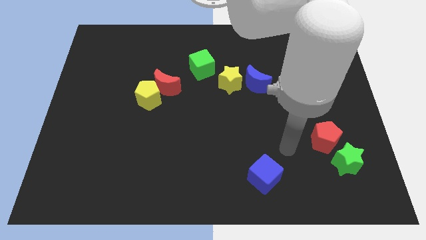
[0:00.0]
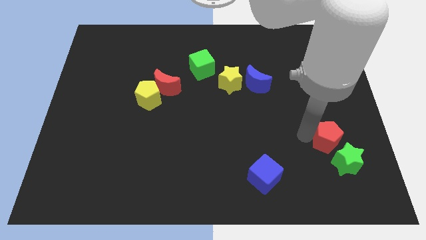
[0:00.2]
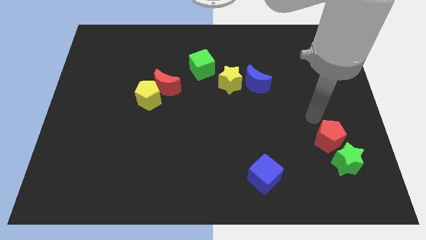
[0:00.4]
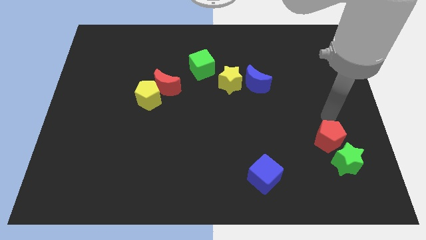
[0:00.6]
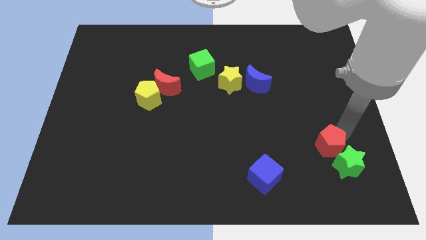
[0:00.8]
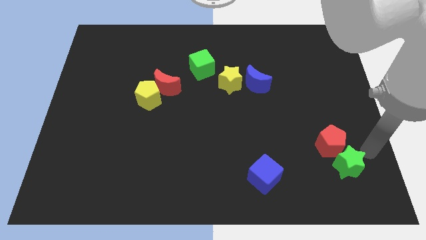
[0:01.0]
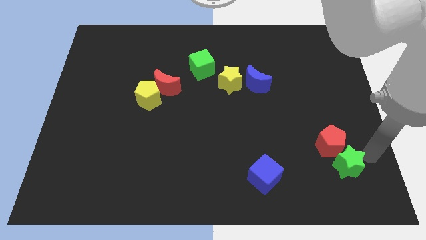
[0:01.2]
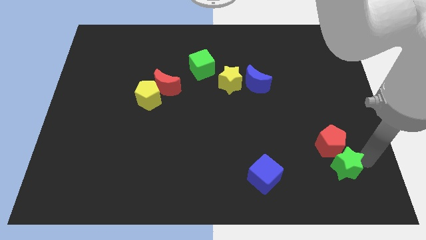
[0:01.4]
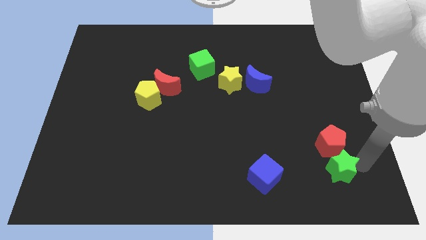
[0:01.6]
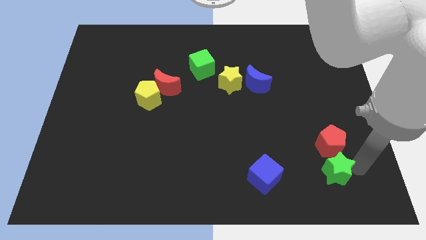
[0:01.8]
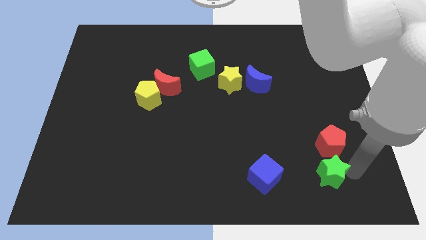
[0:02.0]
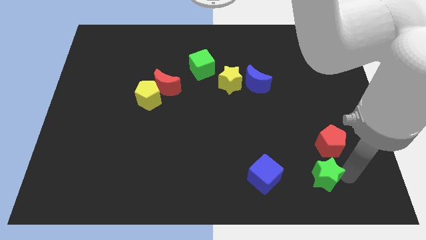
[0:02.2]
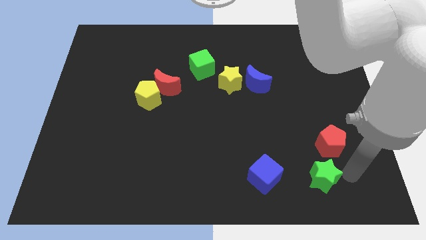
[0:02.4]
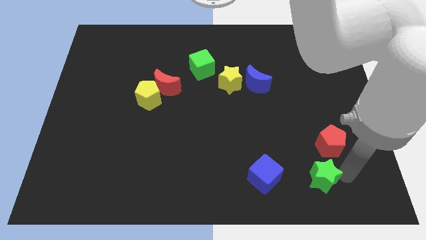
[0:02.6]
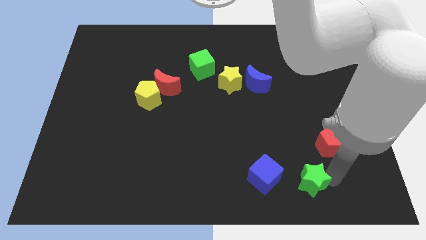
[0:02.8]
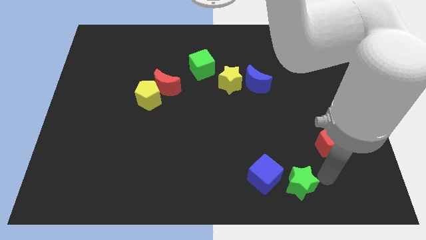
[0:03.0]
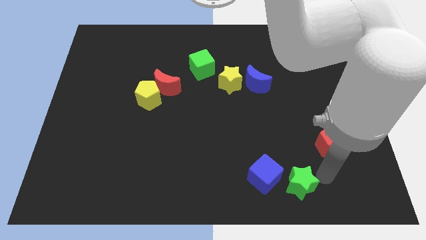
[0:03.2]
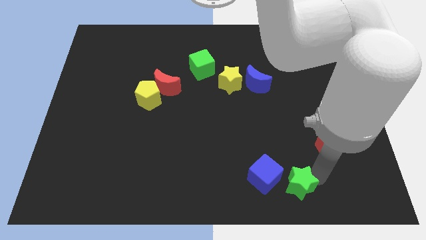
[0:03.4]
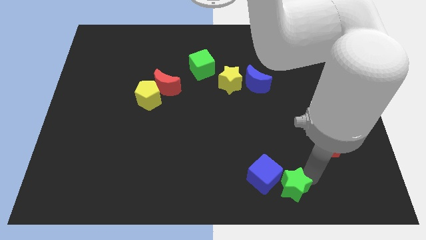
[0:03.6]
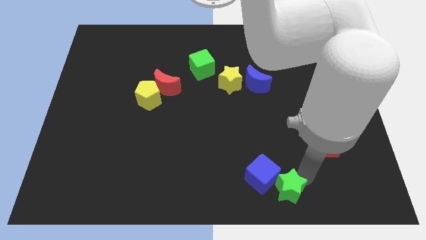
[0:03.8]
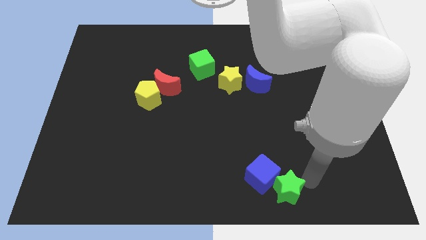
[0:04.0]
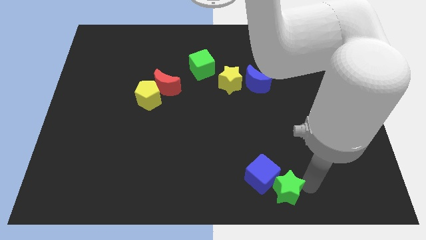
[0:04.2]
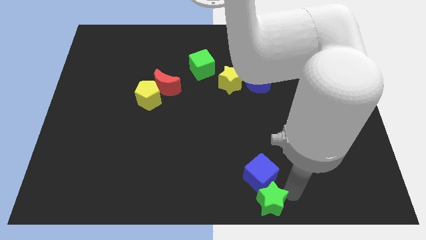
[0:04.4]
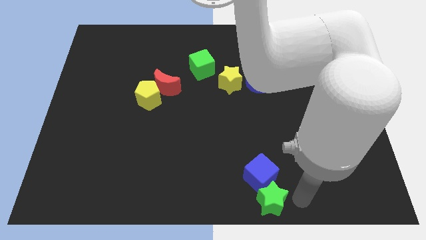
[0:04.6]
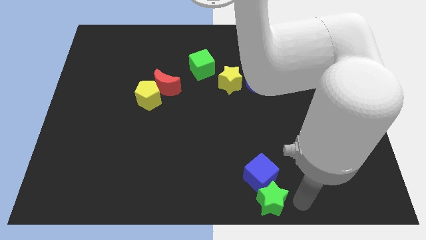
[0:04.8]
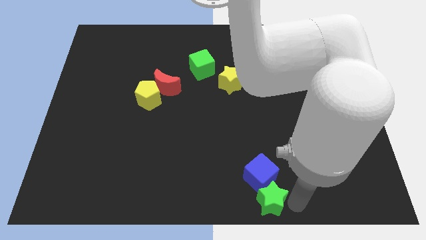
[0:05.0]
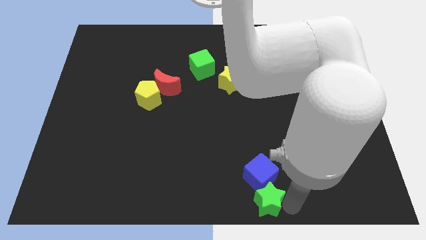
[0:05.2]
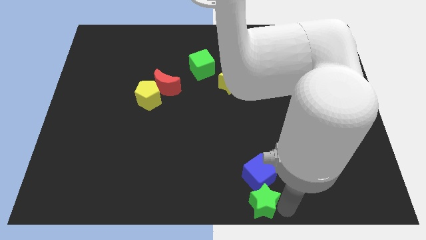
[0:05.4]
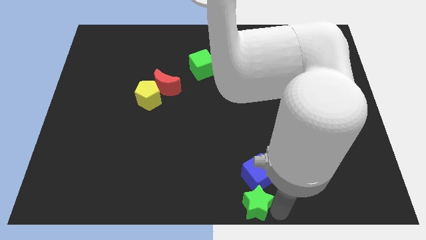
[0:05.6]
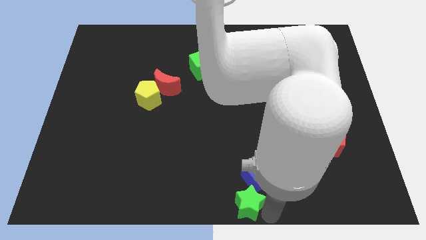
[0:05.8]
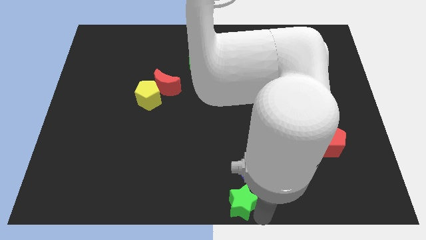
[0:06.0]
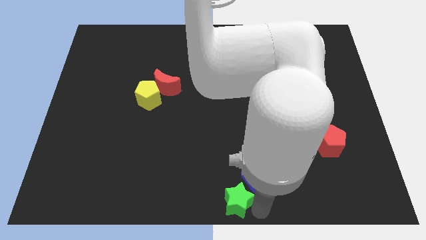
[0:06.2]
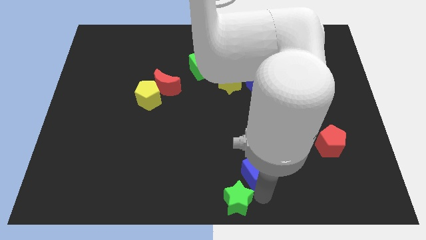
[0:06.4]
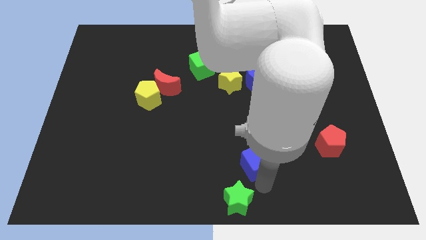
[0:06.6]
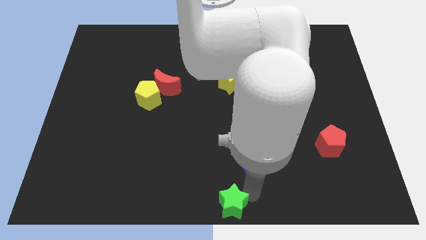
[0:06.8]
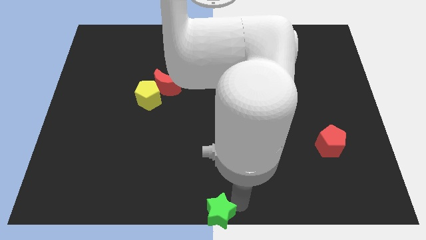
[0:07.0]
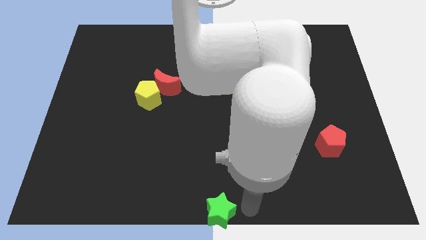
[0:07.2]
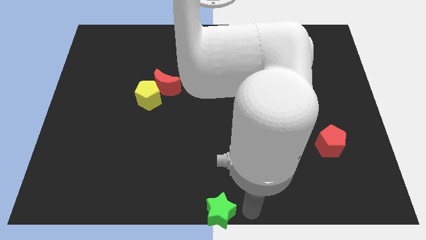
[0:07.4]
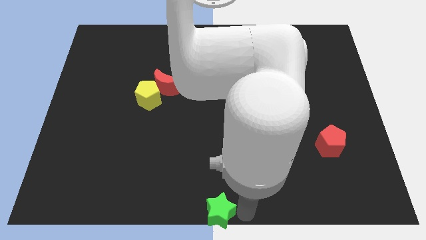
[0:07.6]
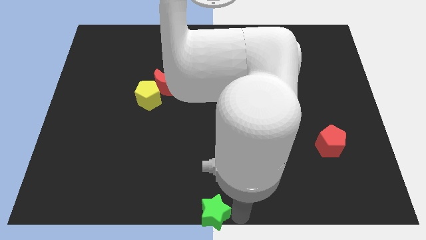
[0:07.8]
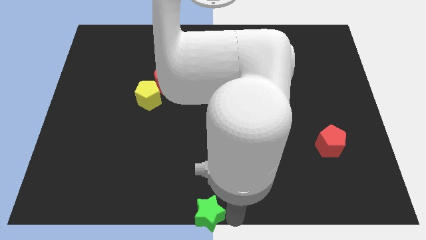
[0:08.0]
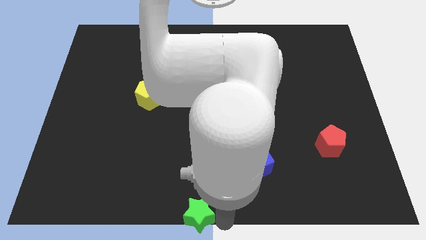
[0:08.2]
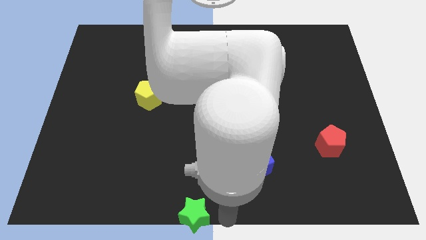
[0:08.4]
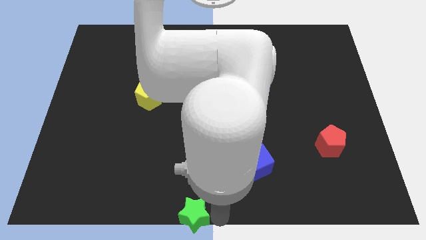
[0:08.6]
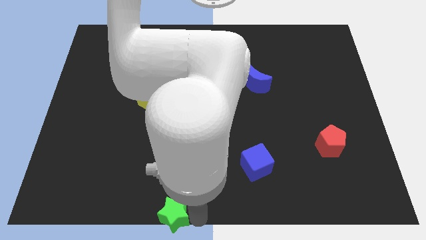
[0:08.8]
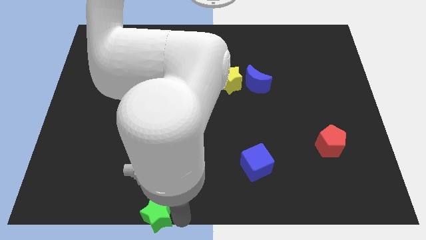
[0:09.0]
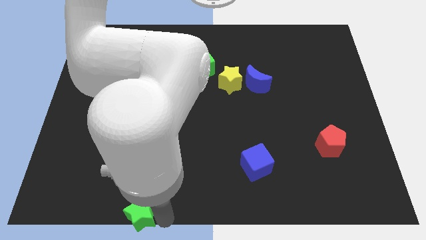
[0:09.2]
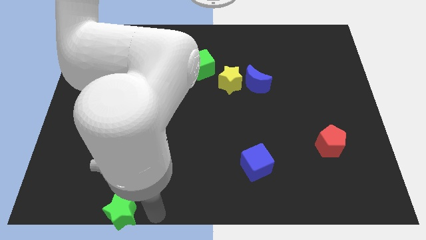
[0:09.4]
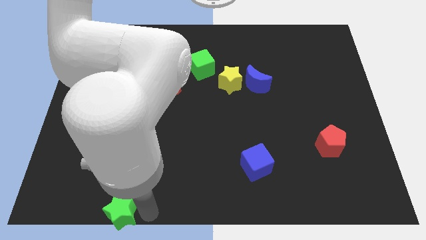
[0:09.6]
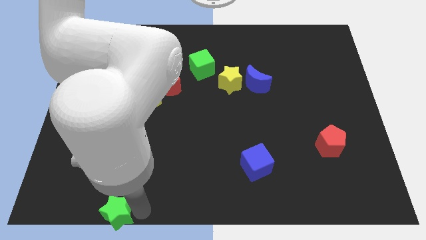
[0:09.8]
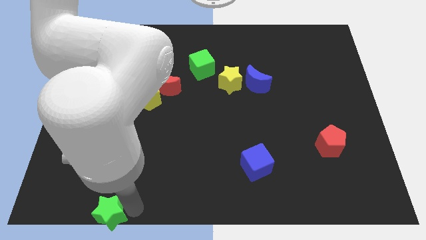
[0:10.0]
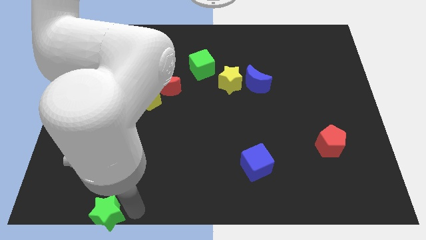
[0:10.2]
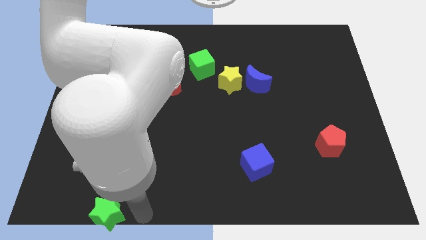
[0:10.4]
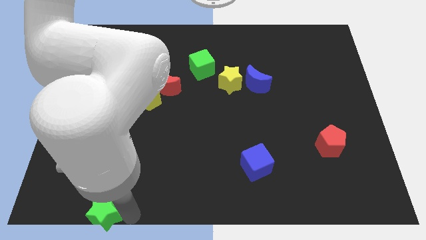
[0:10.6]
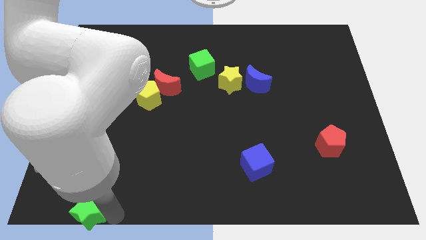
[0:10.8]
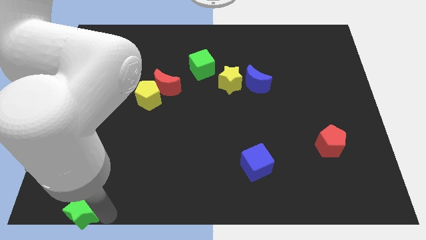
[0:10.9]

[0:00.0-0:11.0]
slide the green star to the bottom left corner
